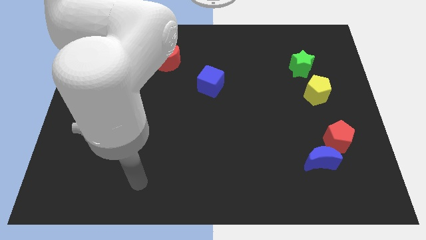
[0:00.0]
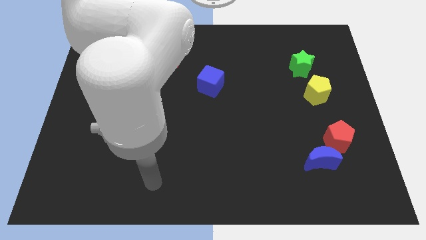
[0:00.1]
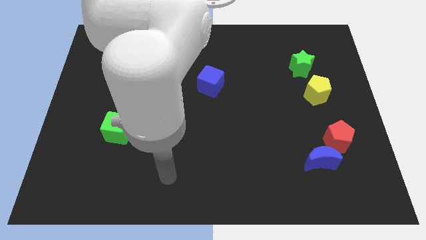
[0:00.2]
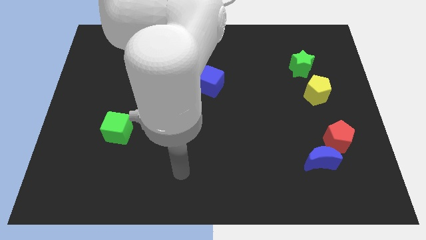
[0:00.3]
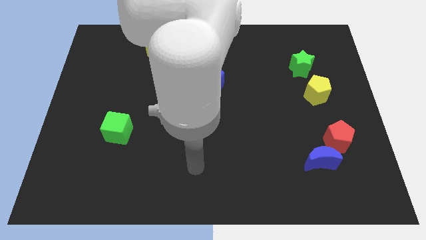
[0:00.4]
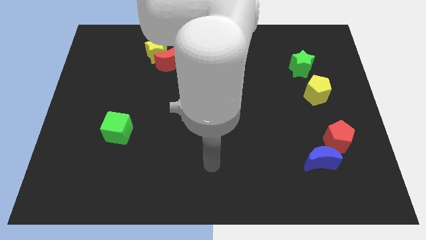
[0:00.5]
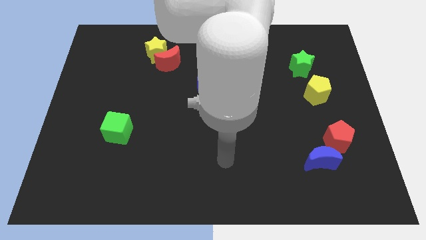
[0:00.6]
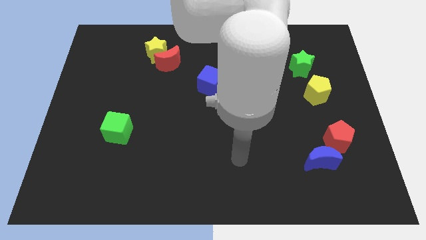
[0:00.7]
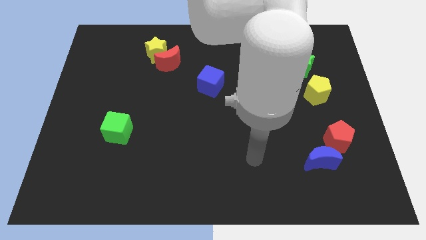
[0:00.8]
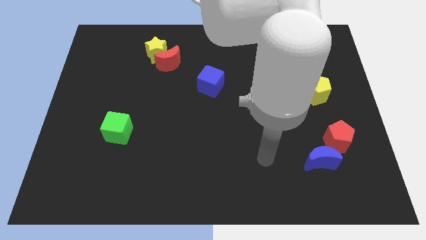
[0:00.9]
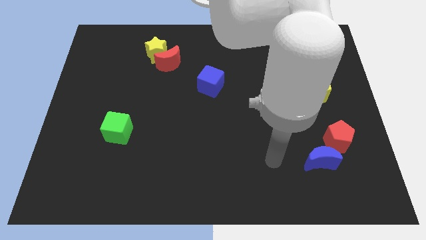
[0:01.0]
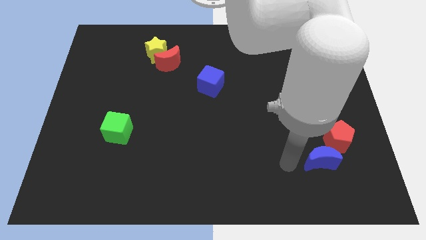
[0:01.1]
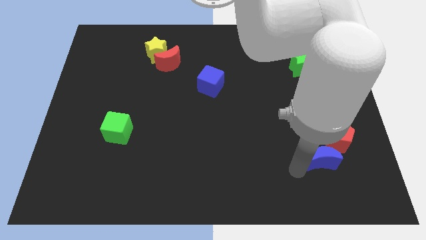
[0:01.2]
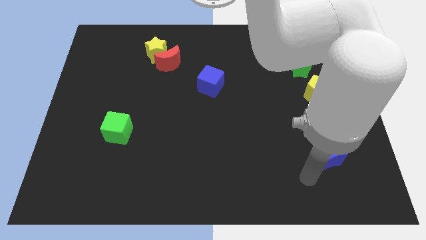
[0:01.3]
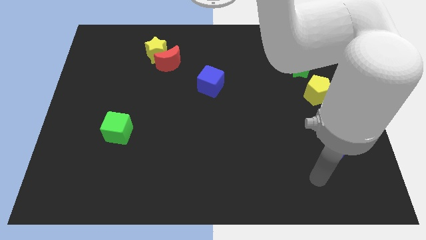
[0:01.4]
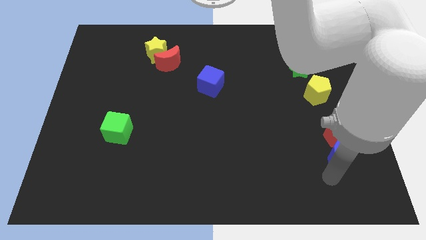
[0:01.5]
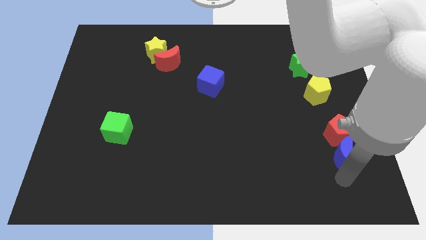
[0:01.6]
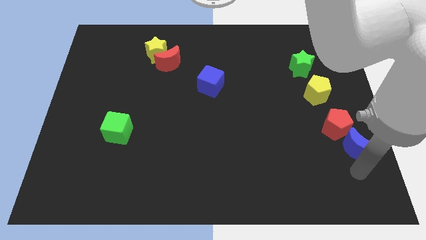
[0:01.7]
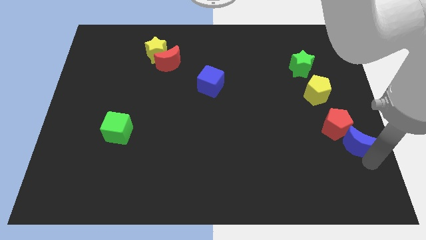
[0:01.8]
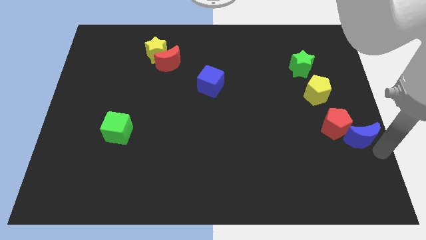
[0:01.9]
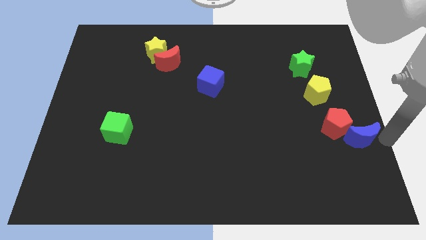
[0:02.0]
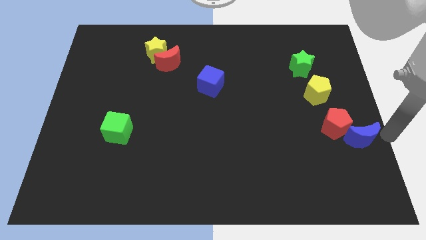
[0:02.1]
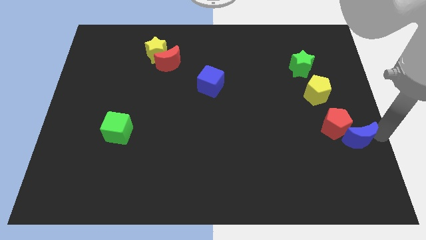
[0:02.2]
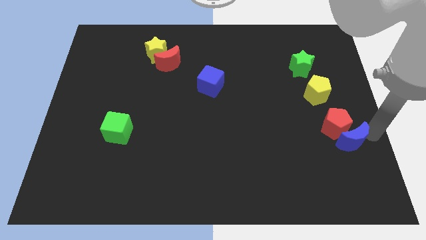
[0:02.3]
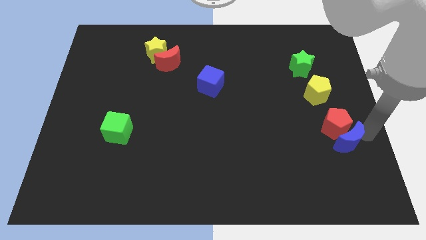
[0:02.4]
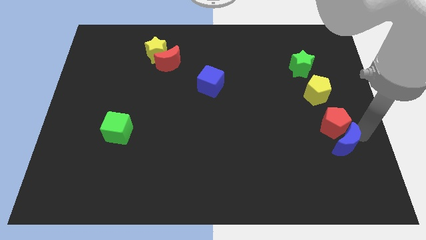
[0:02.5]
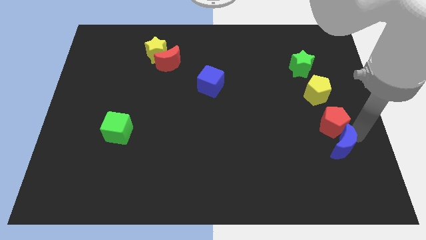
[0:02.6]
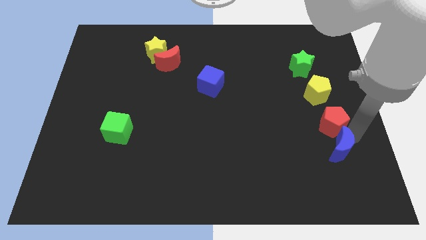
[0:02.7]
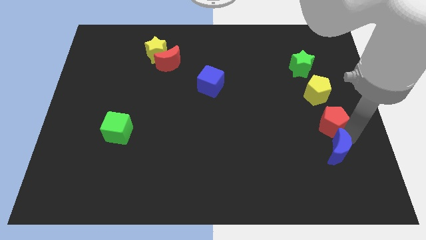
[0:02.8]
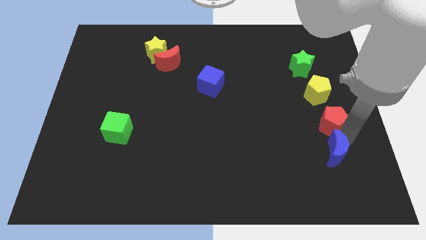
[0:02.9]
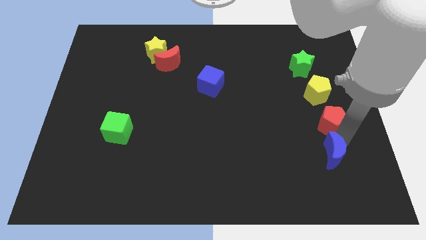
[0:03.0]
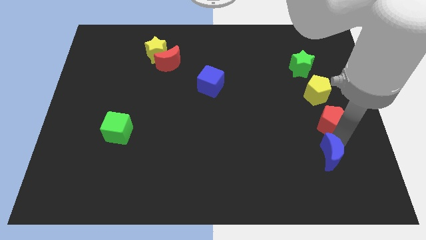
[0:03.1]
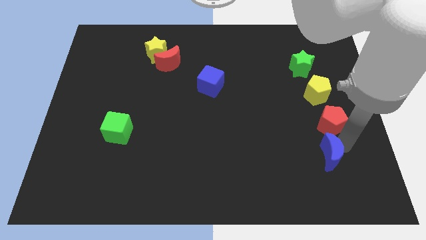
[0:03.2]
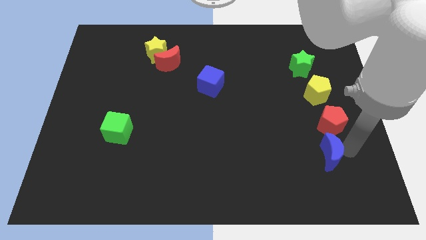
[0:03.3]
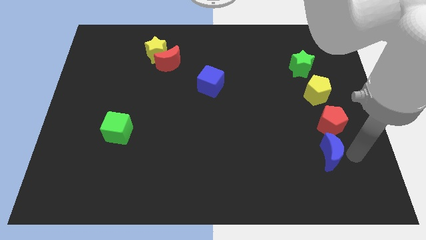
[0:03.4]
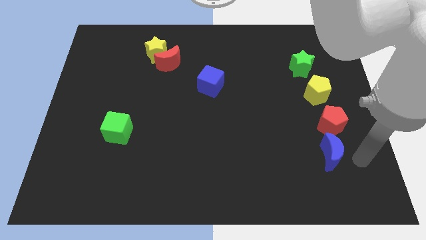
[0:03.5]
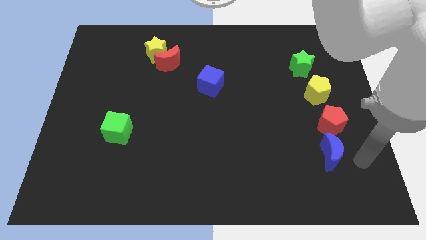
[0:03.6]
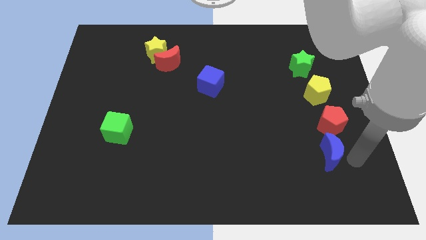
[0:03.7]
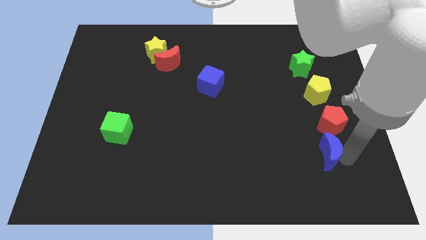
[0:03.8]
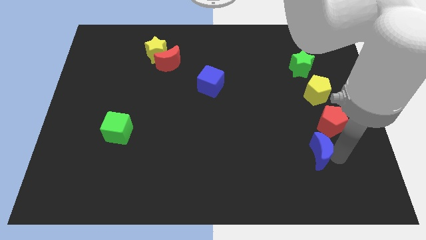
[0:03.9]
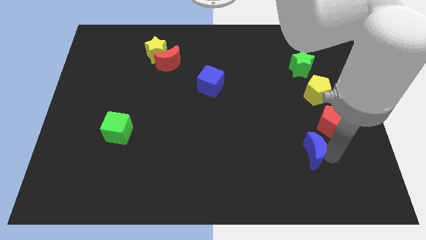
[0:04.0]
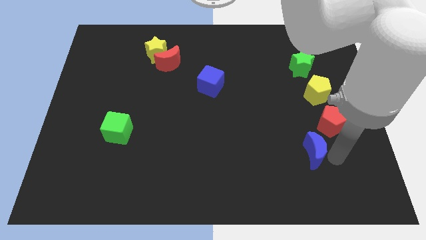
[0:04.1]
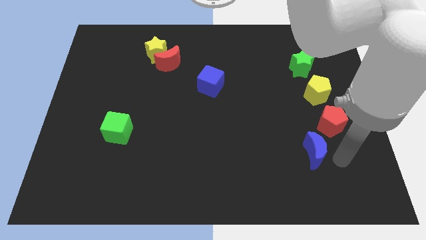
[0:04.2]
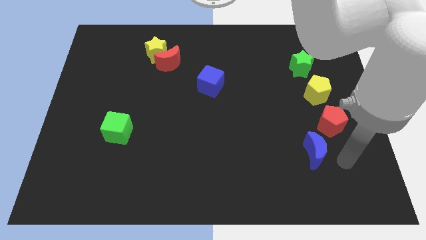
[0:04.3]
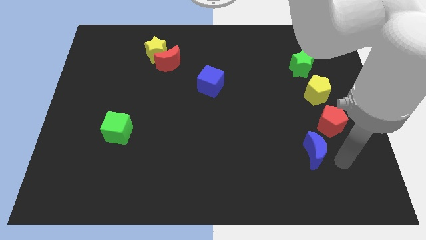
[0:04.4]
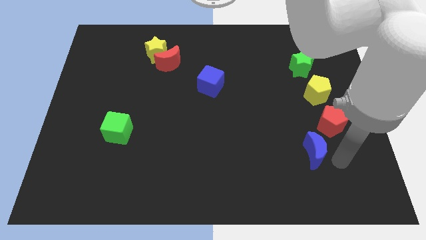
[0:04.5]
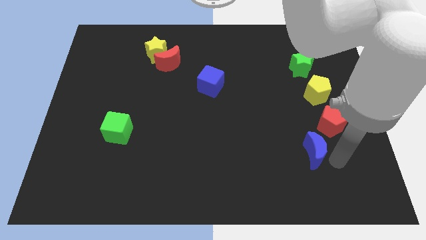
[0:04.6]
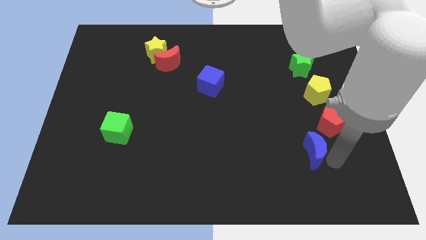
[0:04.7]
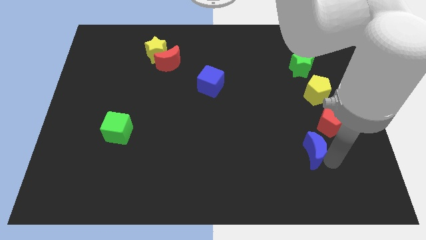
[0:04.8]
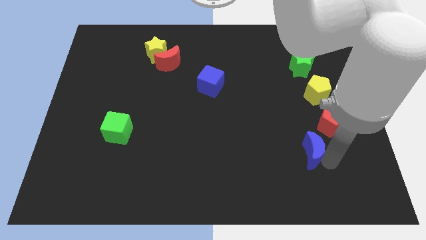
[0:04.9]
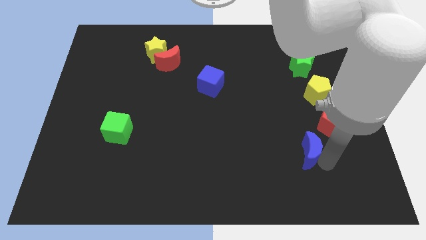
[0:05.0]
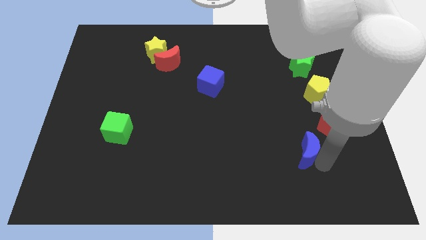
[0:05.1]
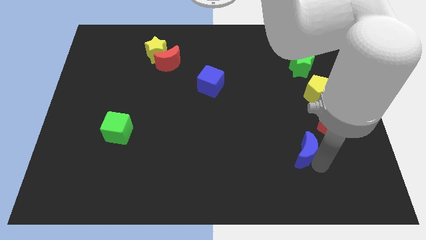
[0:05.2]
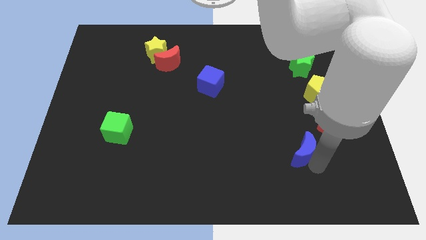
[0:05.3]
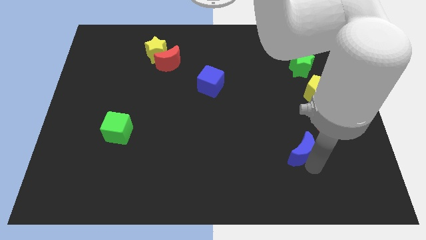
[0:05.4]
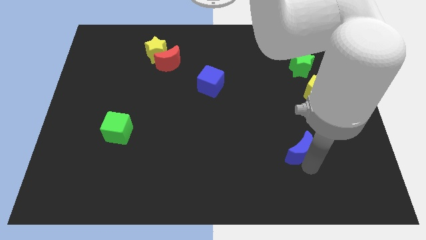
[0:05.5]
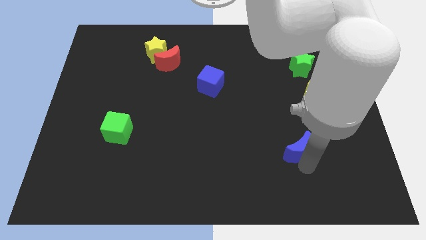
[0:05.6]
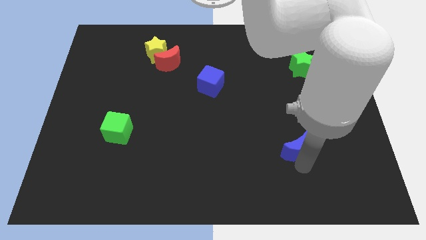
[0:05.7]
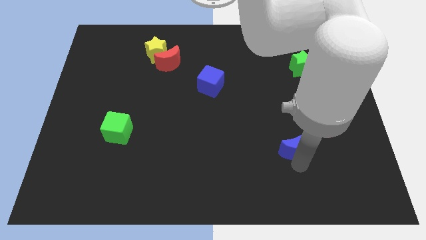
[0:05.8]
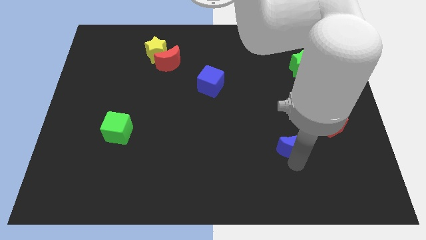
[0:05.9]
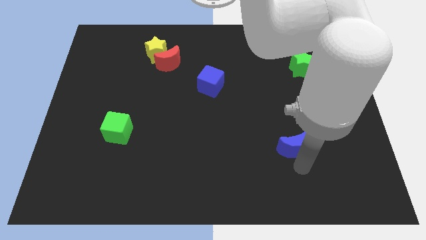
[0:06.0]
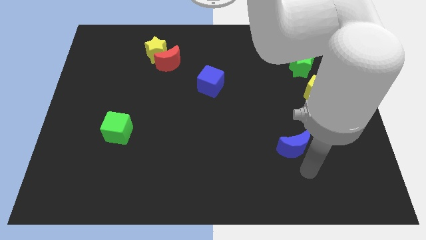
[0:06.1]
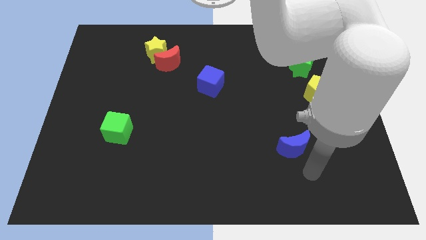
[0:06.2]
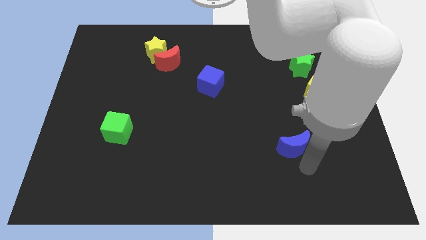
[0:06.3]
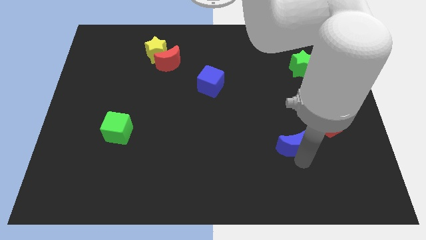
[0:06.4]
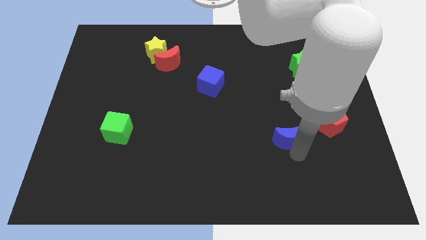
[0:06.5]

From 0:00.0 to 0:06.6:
move the blue moon somewhat diagonally up and to the left

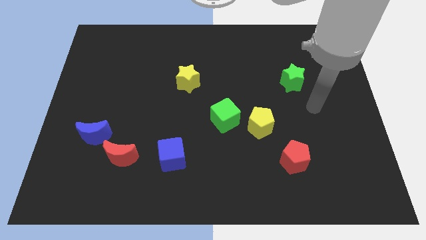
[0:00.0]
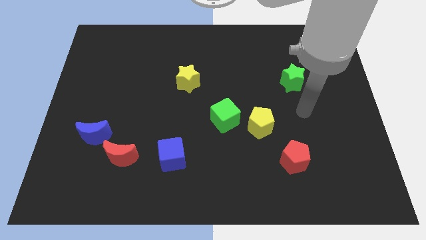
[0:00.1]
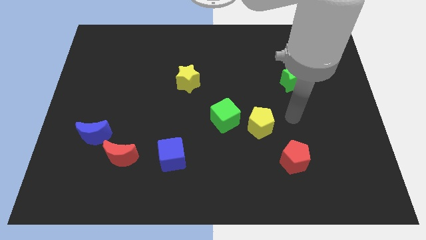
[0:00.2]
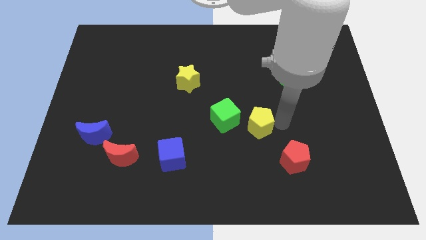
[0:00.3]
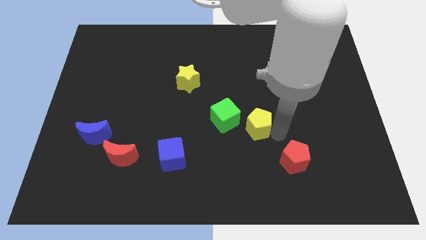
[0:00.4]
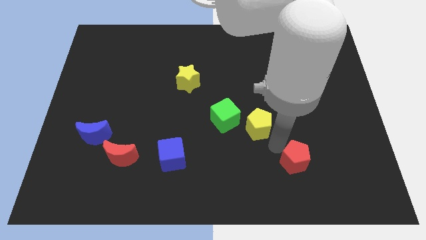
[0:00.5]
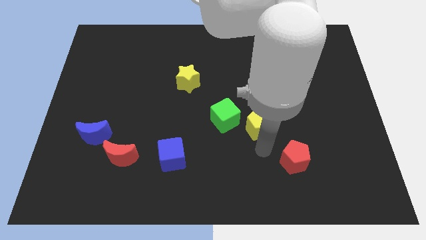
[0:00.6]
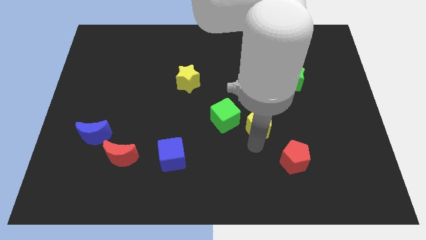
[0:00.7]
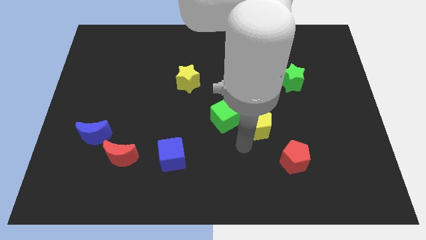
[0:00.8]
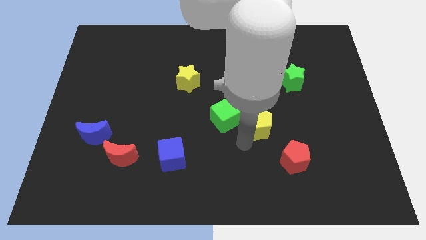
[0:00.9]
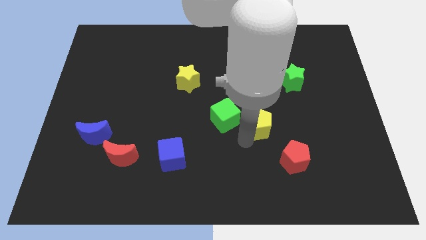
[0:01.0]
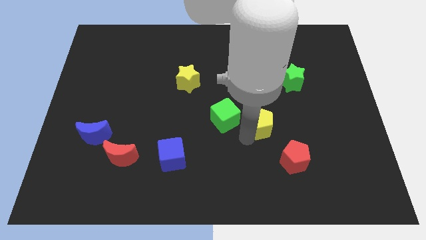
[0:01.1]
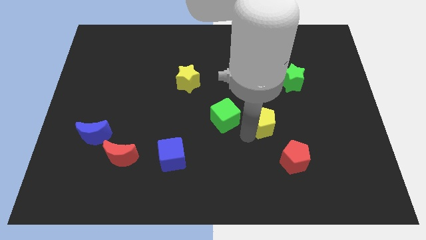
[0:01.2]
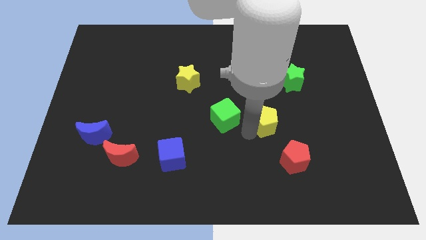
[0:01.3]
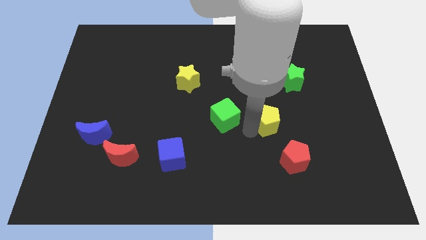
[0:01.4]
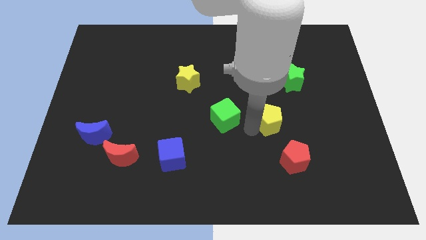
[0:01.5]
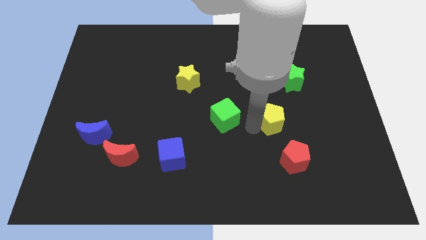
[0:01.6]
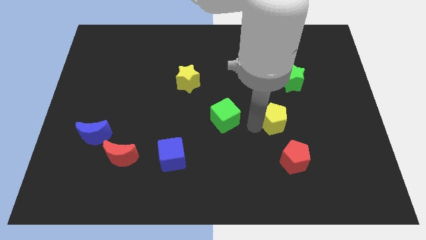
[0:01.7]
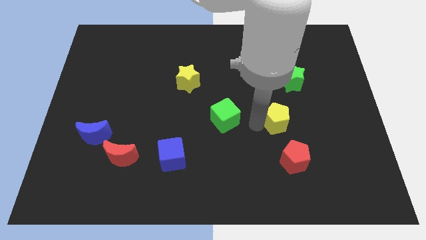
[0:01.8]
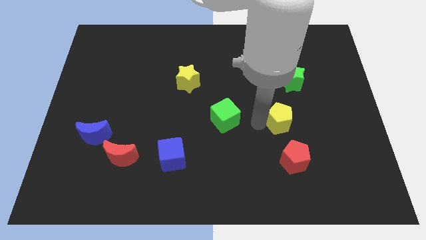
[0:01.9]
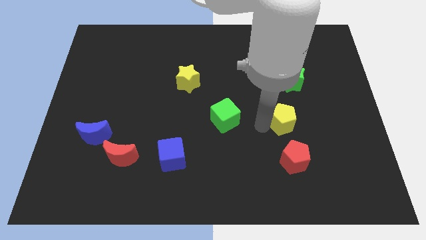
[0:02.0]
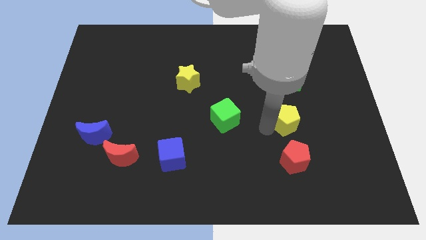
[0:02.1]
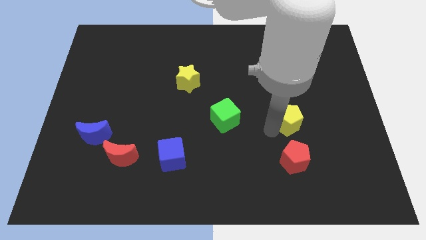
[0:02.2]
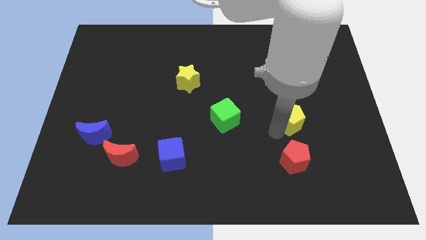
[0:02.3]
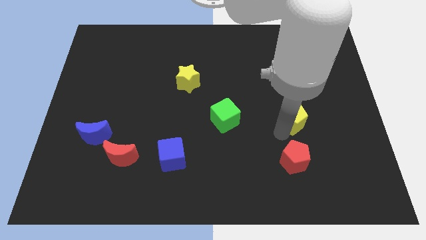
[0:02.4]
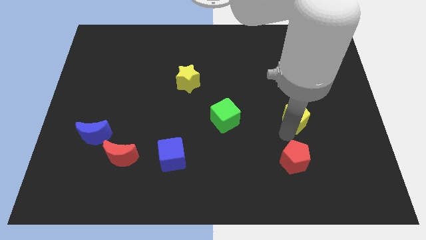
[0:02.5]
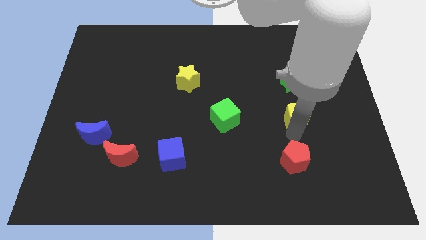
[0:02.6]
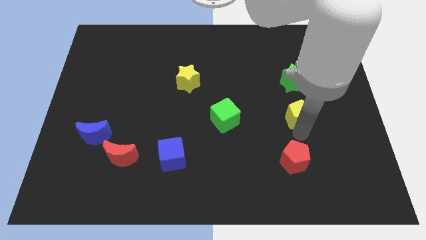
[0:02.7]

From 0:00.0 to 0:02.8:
slightly move the yellow pentagon up and then right
